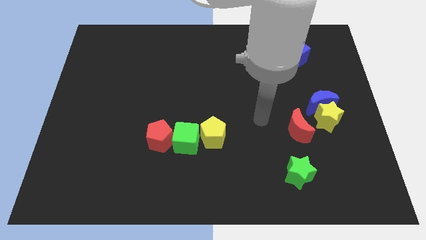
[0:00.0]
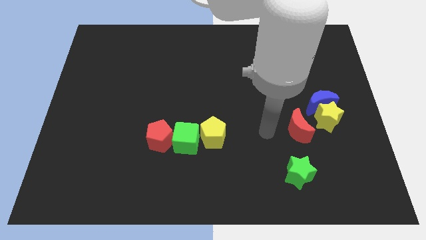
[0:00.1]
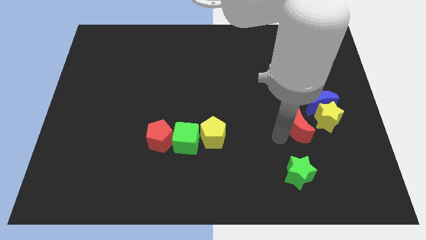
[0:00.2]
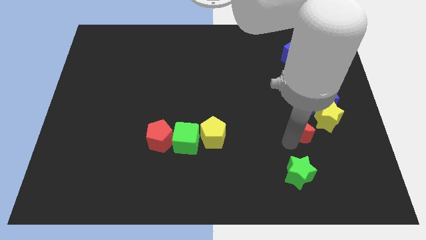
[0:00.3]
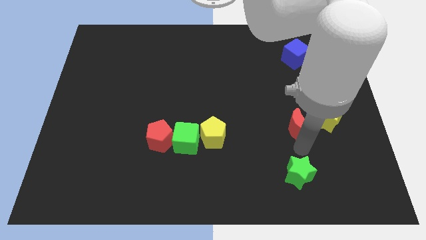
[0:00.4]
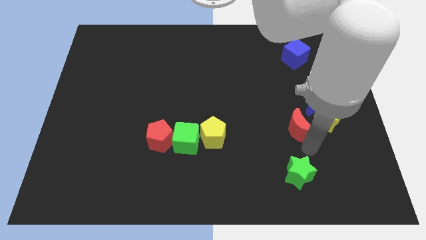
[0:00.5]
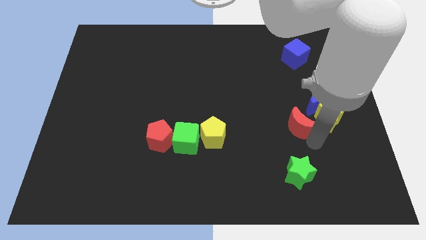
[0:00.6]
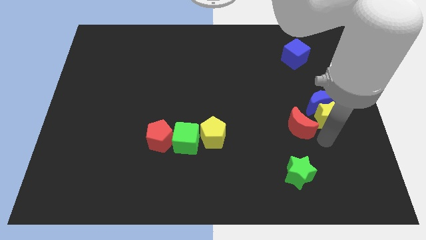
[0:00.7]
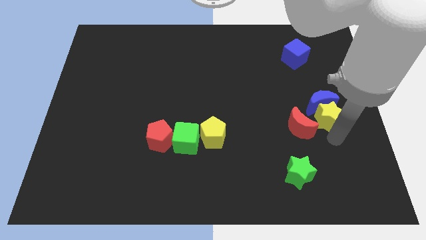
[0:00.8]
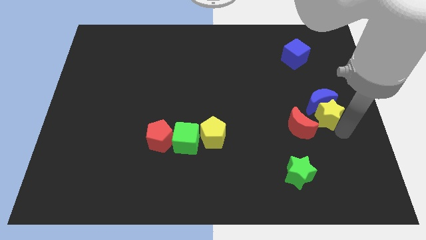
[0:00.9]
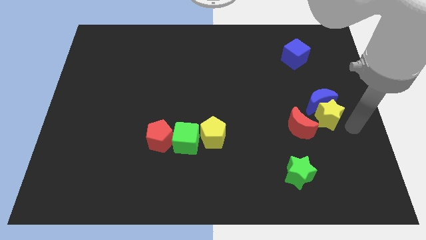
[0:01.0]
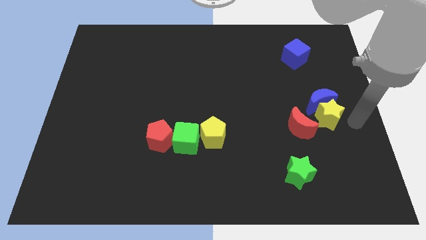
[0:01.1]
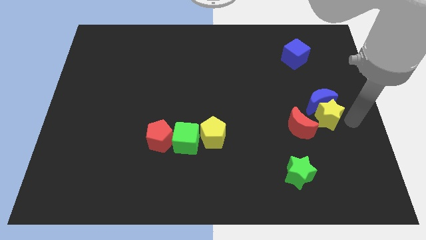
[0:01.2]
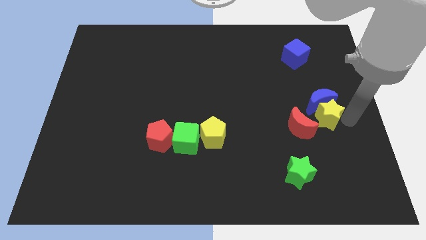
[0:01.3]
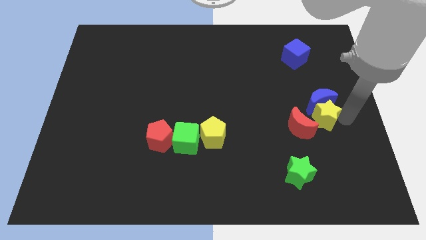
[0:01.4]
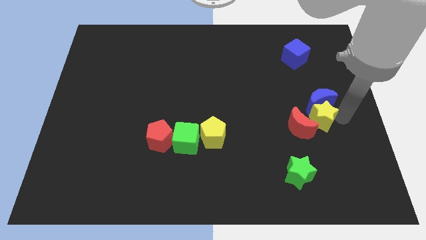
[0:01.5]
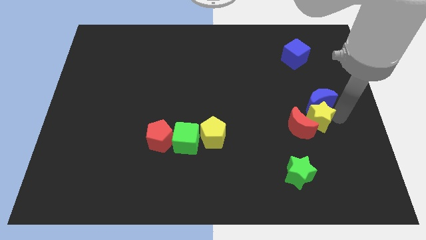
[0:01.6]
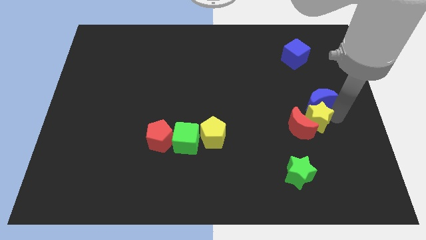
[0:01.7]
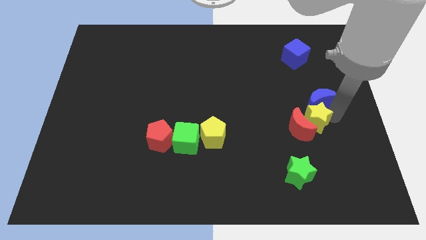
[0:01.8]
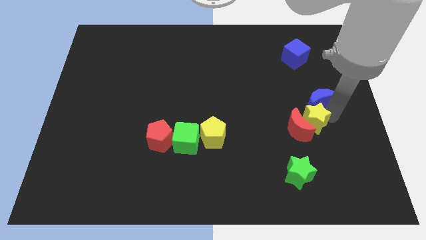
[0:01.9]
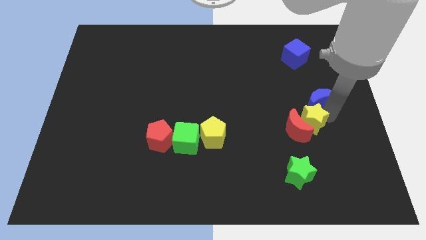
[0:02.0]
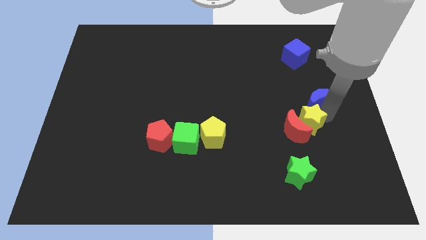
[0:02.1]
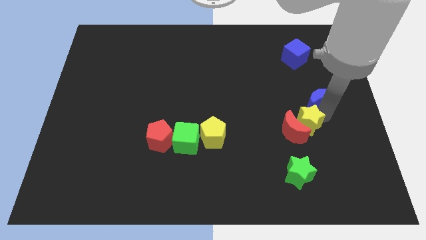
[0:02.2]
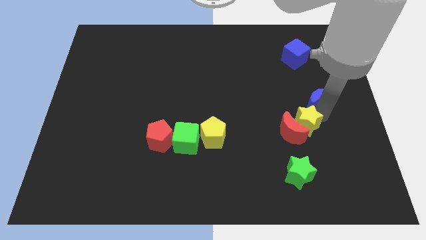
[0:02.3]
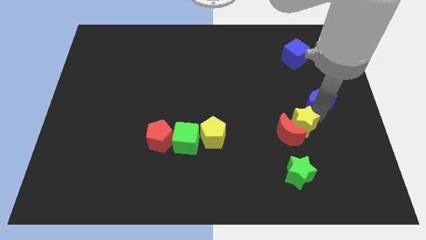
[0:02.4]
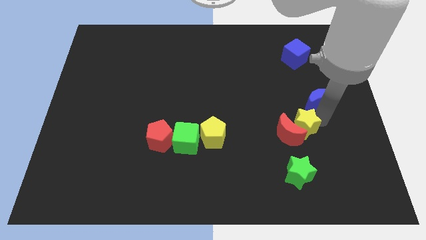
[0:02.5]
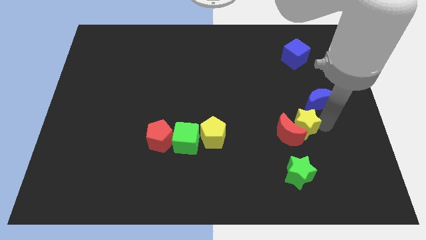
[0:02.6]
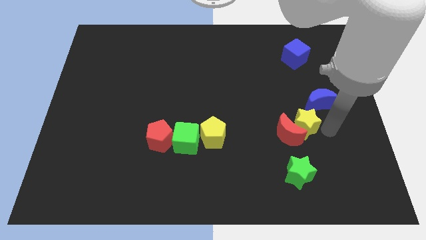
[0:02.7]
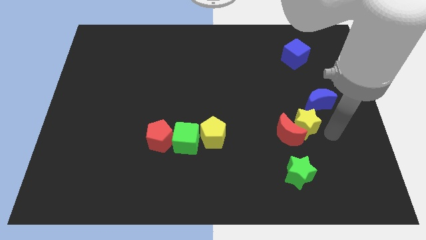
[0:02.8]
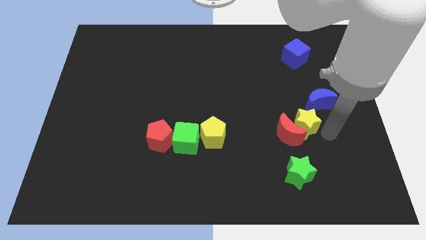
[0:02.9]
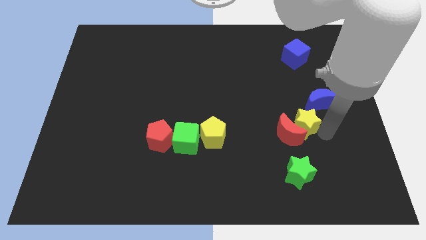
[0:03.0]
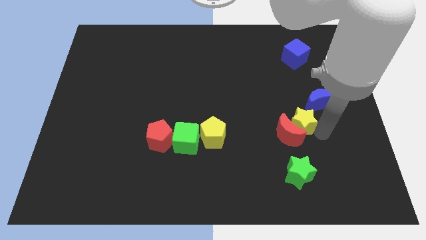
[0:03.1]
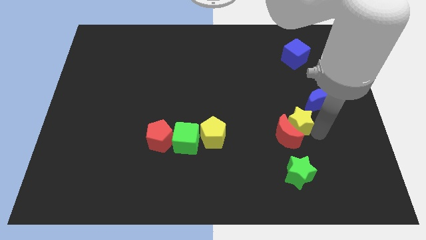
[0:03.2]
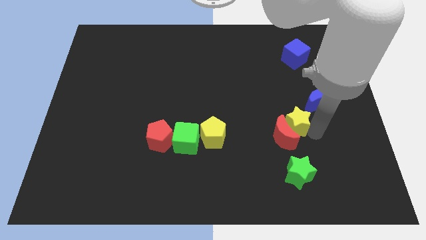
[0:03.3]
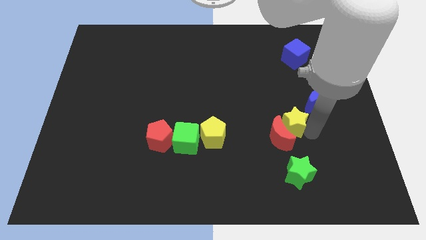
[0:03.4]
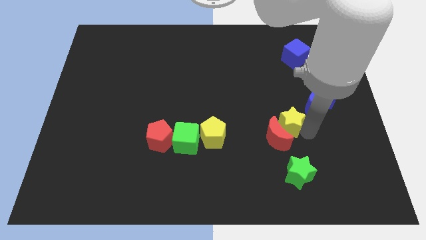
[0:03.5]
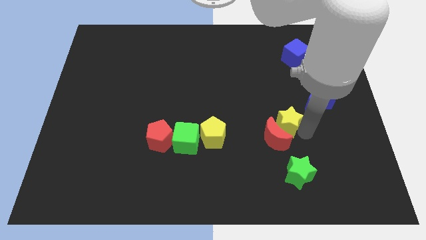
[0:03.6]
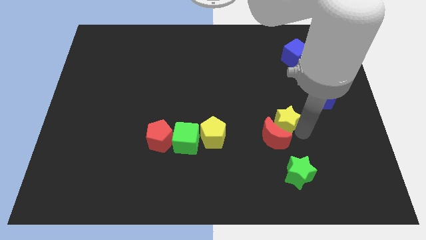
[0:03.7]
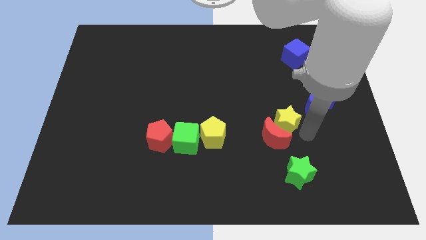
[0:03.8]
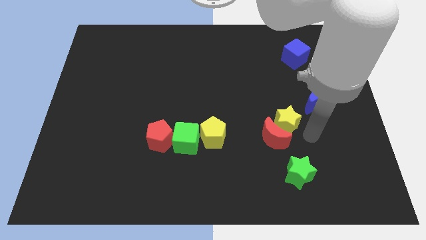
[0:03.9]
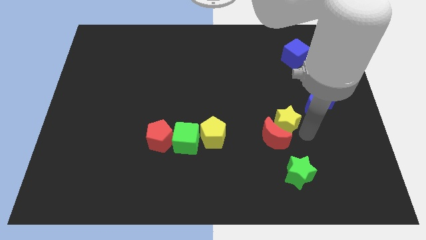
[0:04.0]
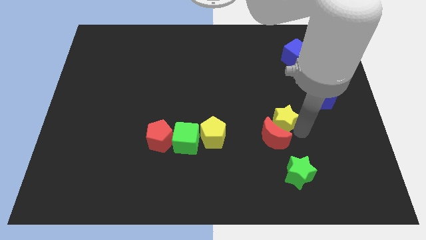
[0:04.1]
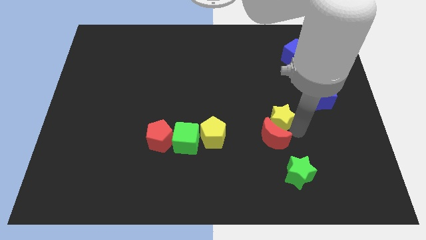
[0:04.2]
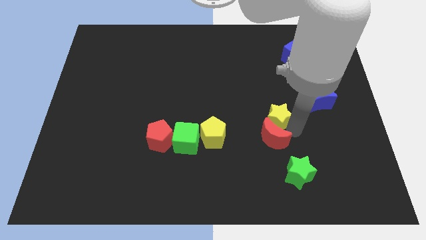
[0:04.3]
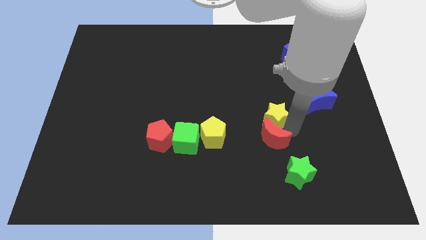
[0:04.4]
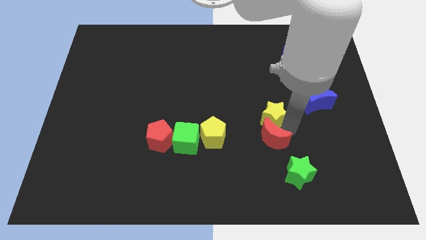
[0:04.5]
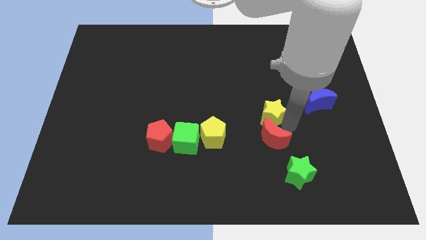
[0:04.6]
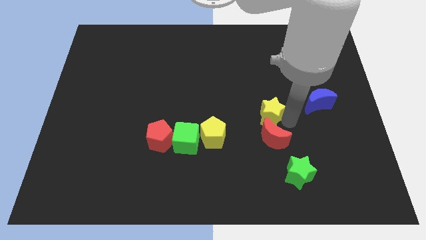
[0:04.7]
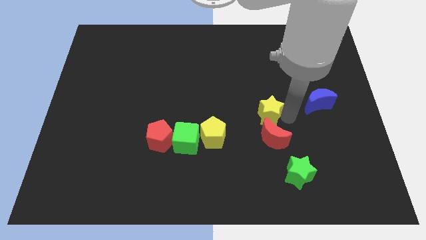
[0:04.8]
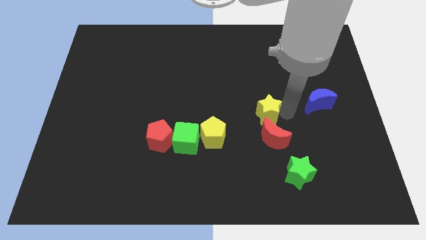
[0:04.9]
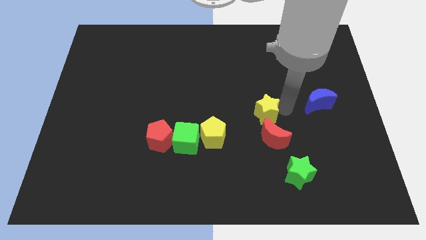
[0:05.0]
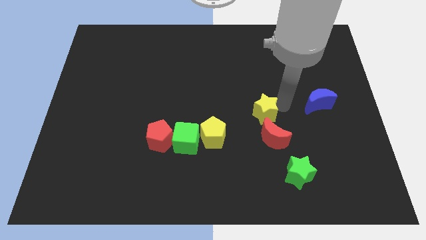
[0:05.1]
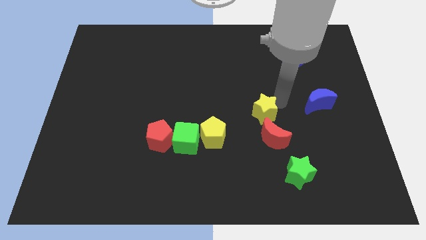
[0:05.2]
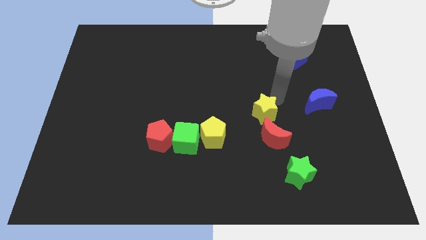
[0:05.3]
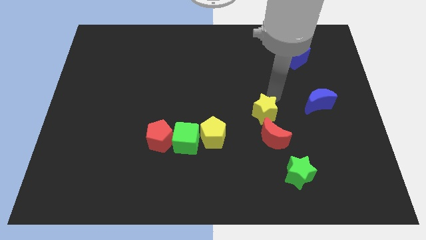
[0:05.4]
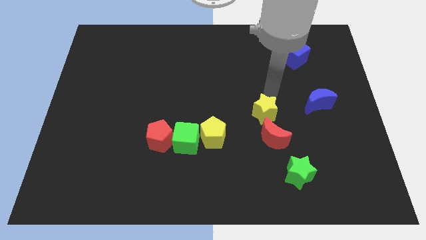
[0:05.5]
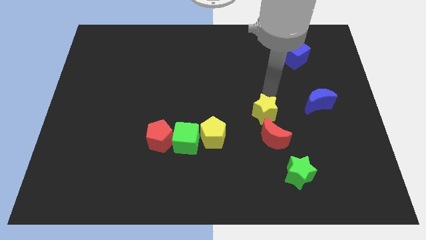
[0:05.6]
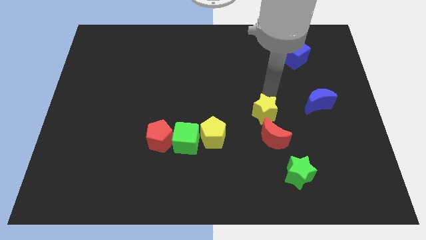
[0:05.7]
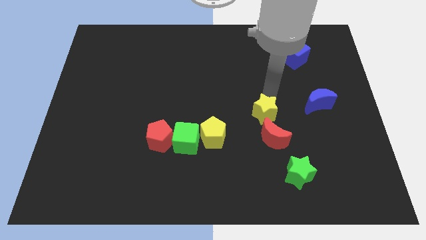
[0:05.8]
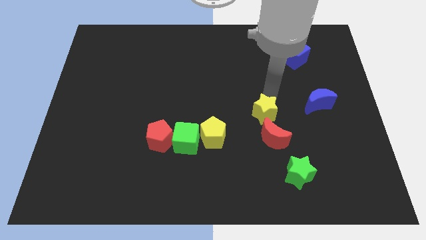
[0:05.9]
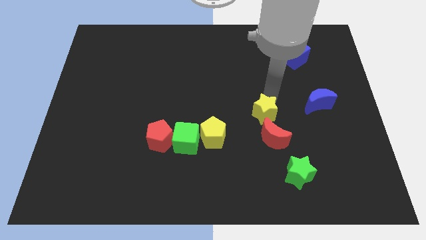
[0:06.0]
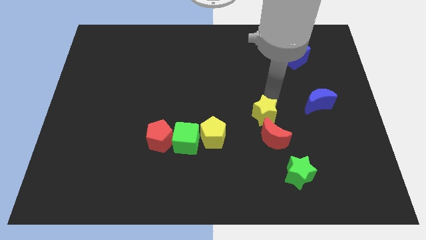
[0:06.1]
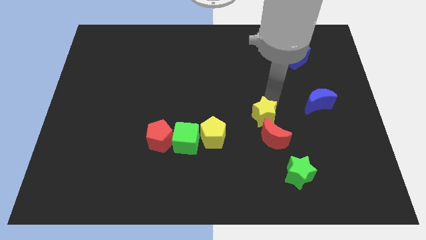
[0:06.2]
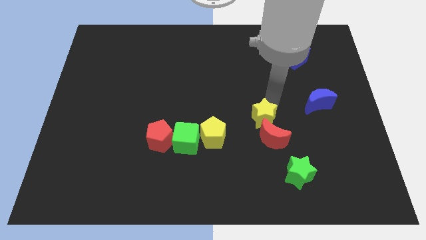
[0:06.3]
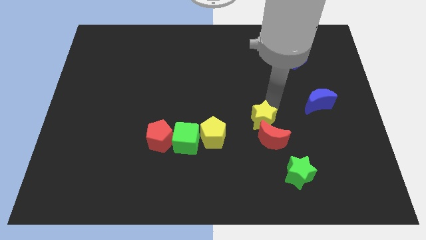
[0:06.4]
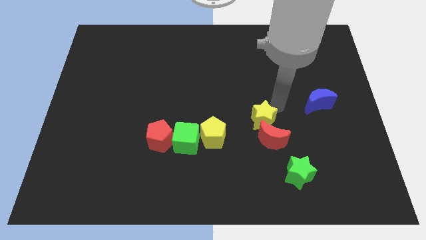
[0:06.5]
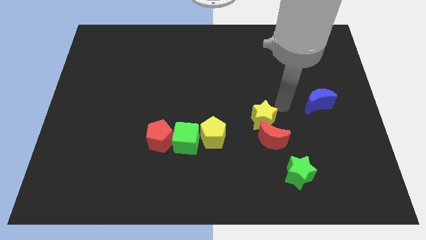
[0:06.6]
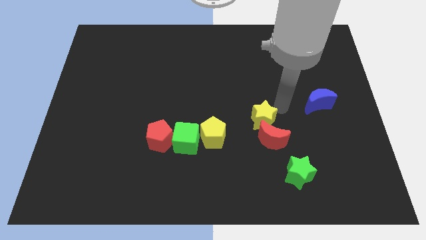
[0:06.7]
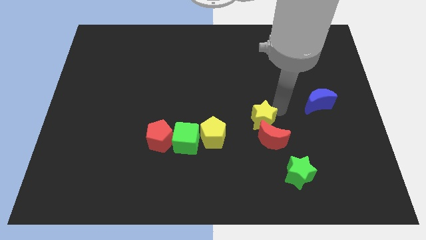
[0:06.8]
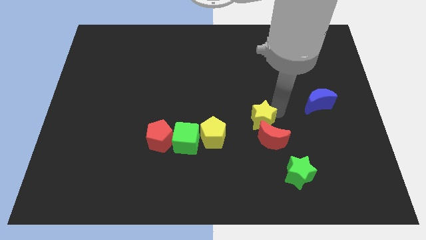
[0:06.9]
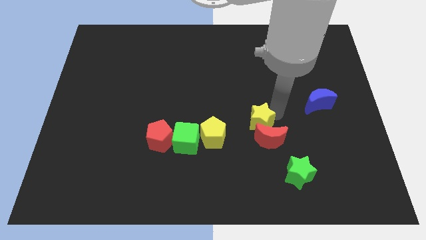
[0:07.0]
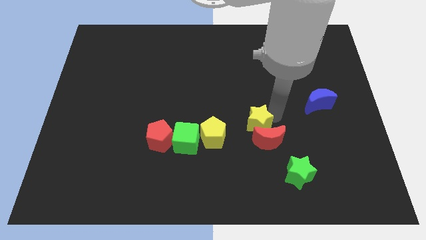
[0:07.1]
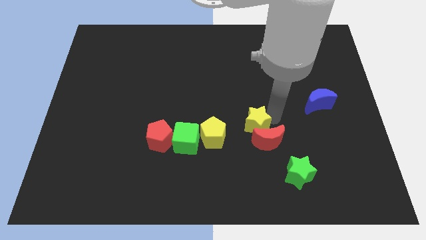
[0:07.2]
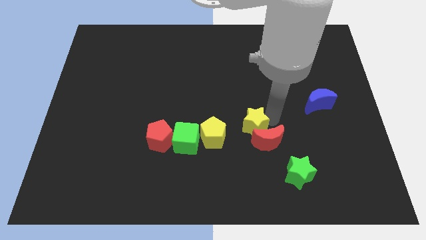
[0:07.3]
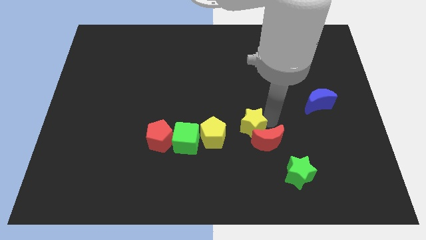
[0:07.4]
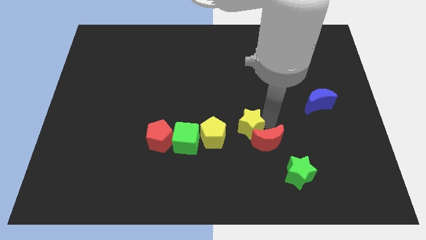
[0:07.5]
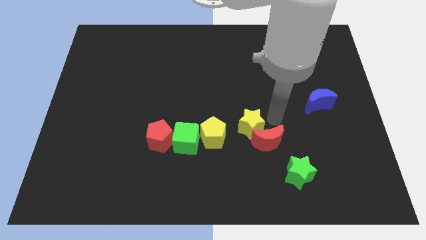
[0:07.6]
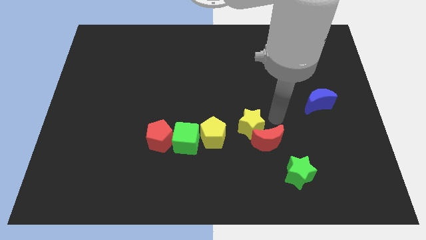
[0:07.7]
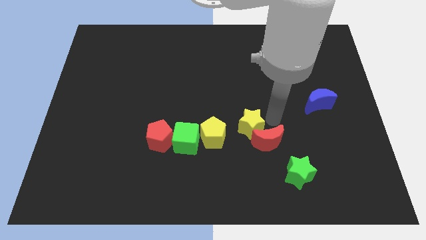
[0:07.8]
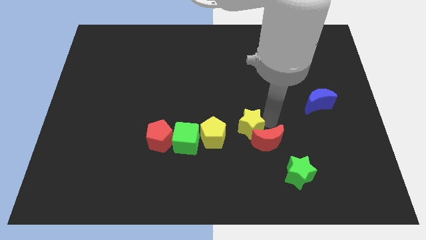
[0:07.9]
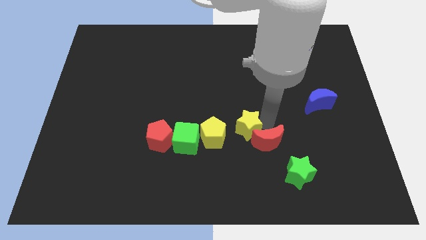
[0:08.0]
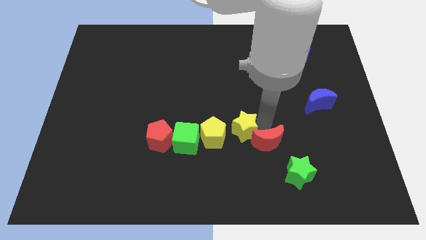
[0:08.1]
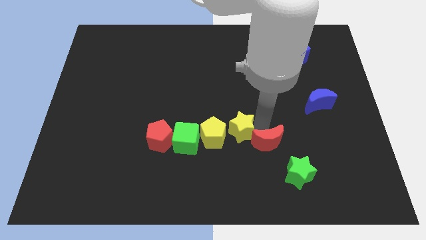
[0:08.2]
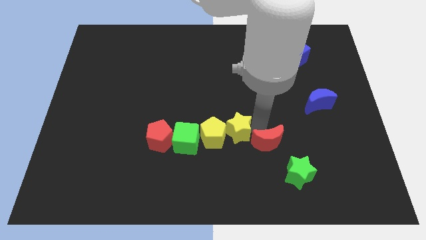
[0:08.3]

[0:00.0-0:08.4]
put the yellow star close to the yellow pentagon

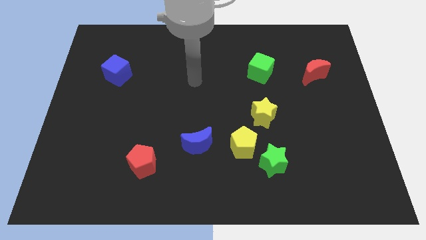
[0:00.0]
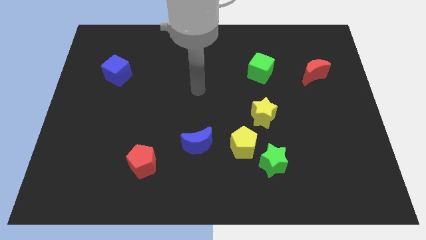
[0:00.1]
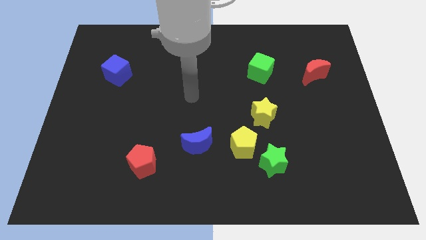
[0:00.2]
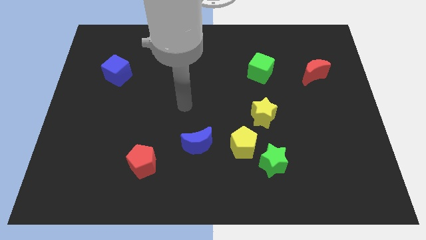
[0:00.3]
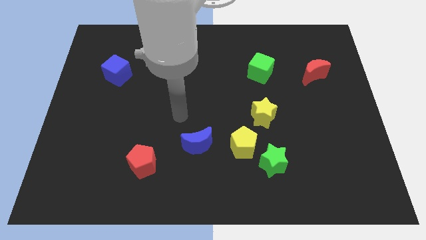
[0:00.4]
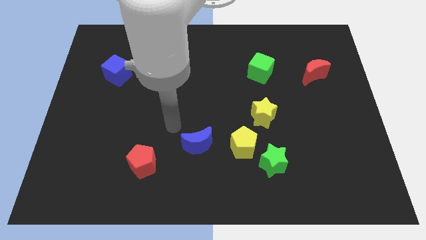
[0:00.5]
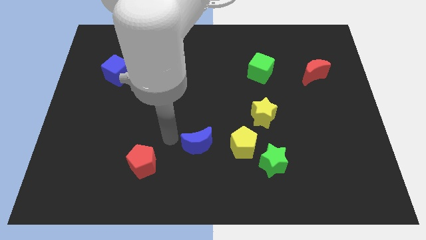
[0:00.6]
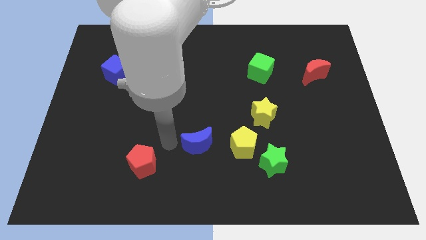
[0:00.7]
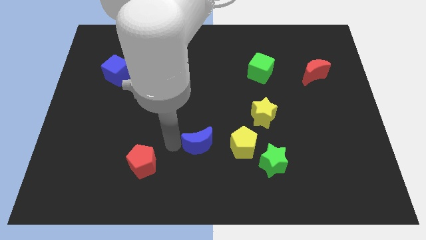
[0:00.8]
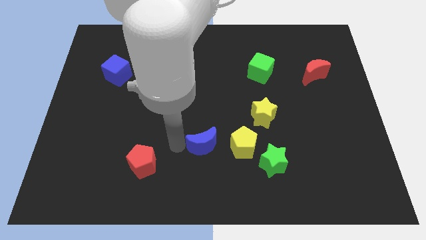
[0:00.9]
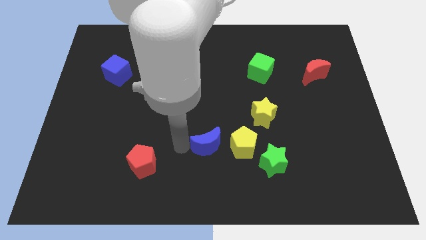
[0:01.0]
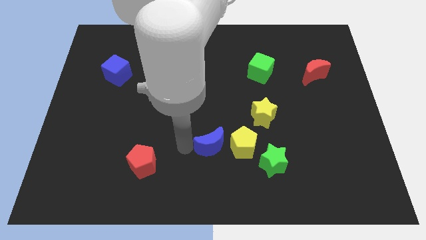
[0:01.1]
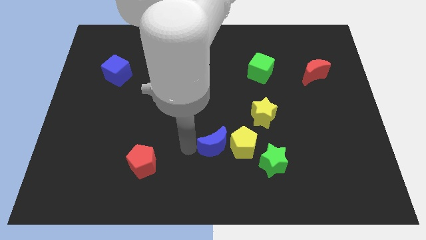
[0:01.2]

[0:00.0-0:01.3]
move the blue moon close to the yellow pentagon
